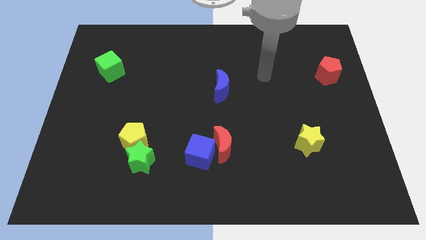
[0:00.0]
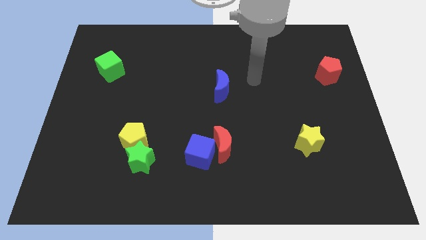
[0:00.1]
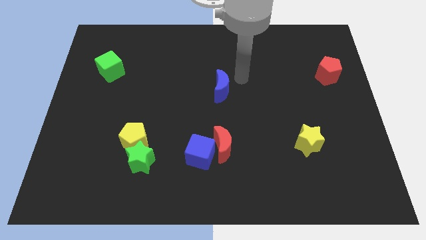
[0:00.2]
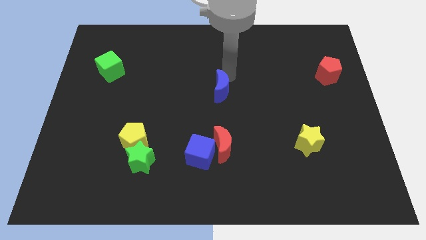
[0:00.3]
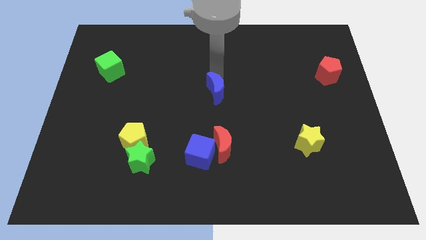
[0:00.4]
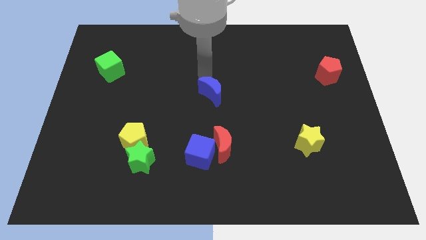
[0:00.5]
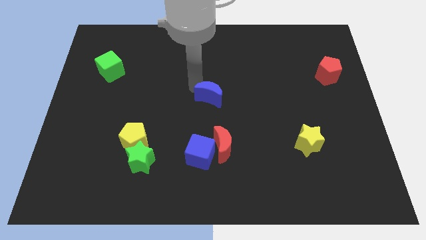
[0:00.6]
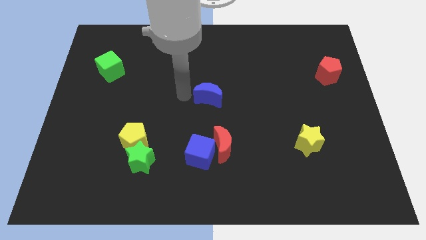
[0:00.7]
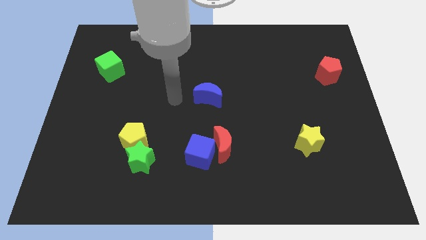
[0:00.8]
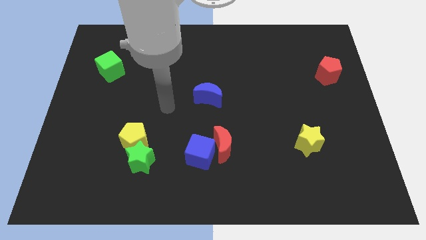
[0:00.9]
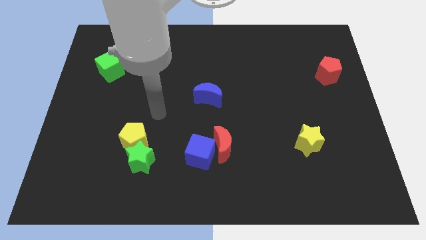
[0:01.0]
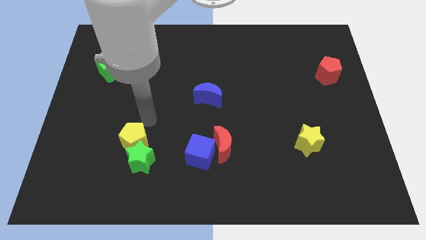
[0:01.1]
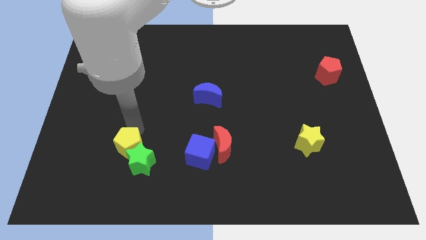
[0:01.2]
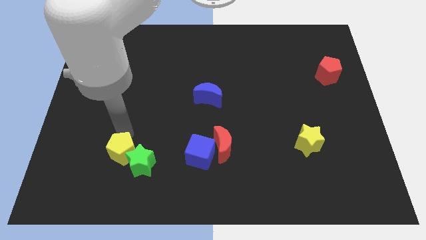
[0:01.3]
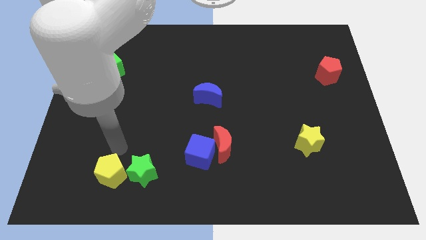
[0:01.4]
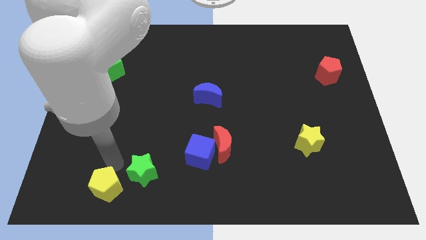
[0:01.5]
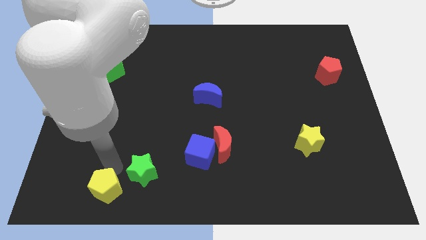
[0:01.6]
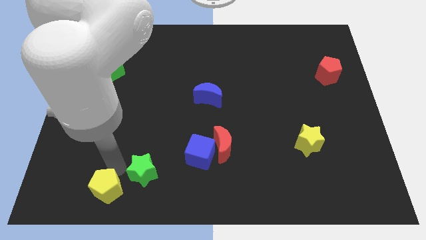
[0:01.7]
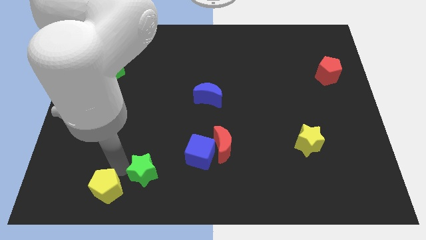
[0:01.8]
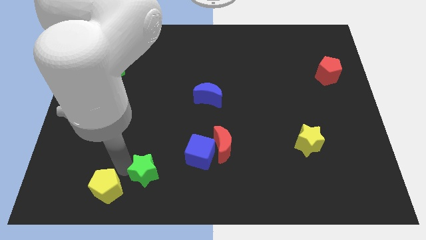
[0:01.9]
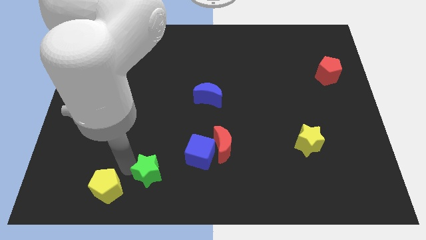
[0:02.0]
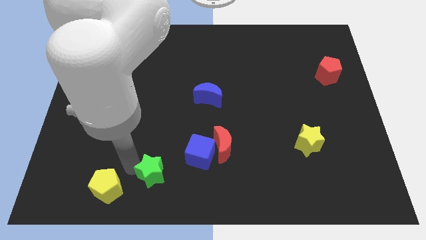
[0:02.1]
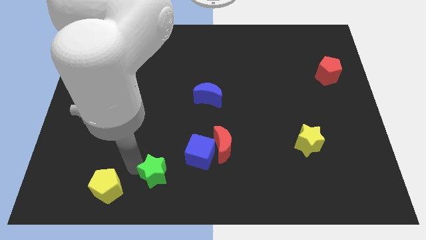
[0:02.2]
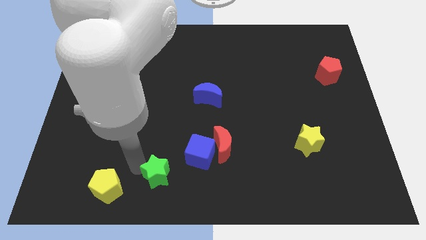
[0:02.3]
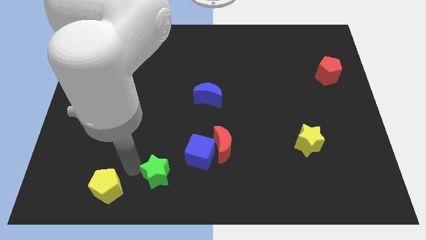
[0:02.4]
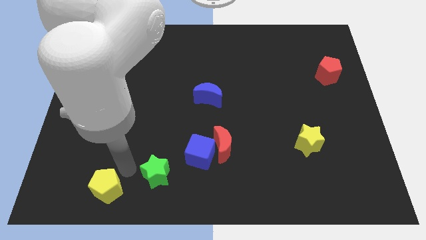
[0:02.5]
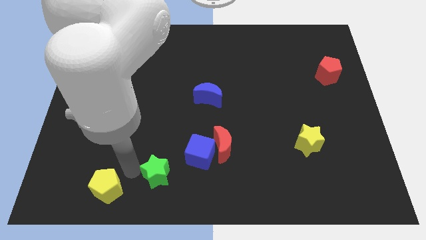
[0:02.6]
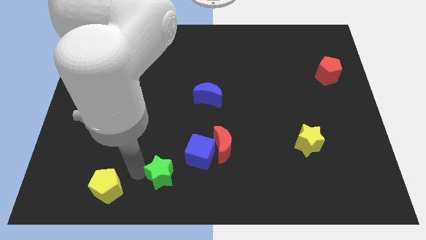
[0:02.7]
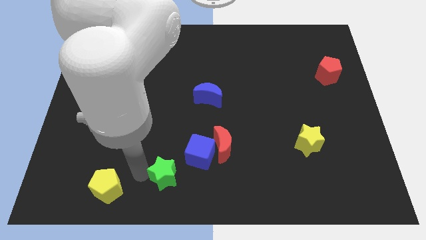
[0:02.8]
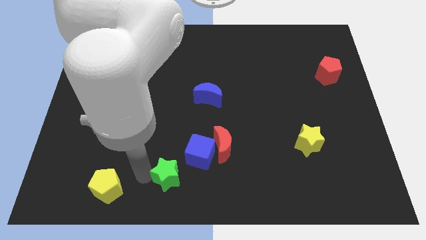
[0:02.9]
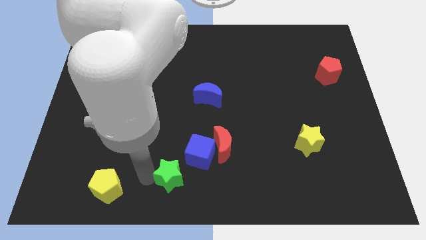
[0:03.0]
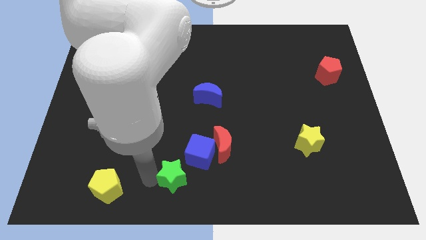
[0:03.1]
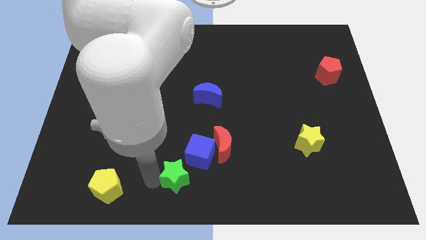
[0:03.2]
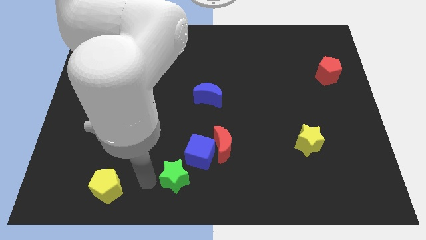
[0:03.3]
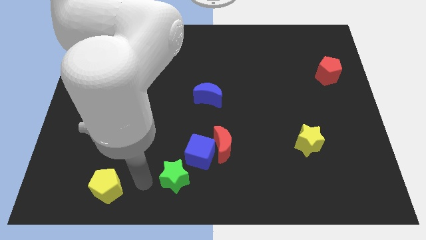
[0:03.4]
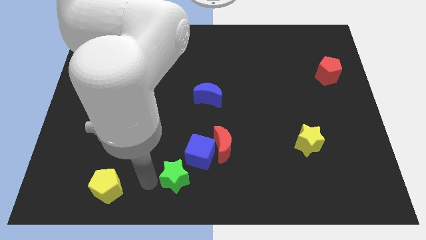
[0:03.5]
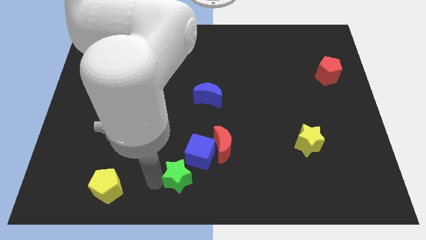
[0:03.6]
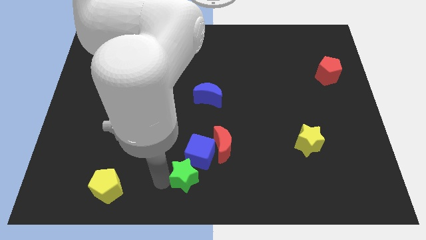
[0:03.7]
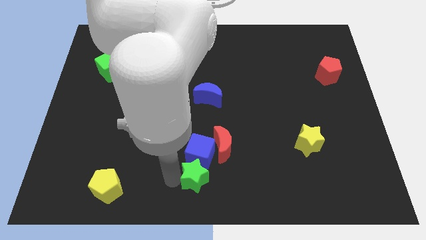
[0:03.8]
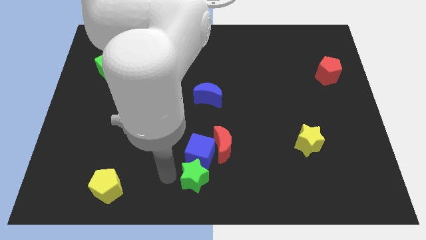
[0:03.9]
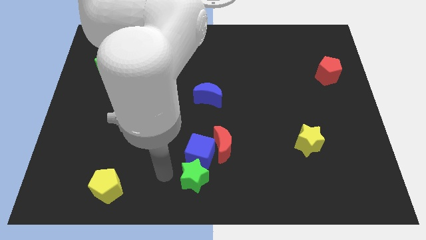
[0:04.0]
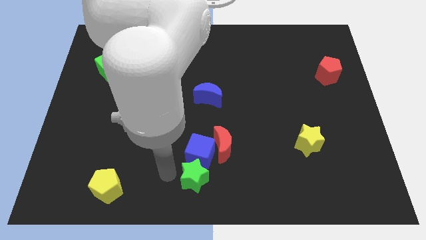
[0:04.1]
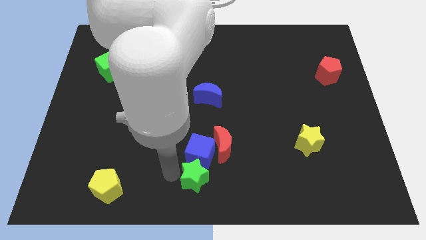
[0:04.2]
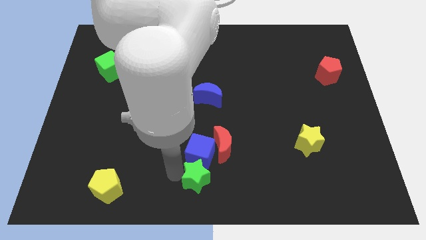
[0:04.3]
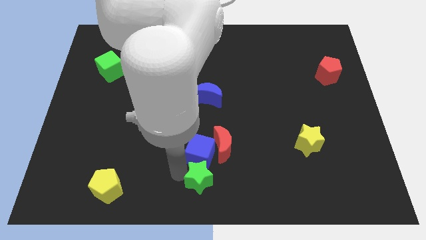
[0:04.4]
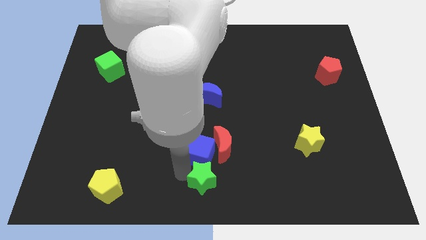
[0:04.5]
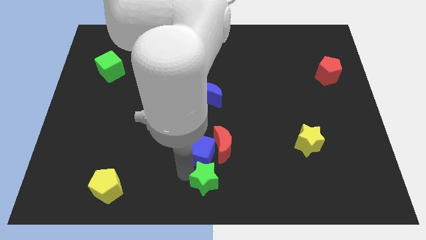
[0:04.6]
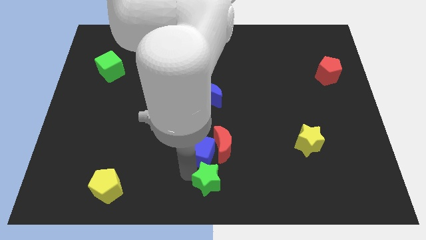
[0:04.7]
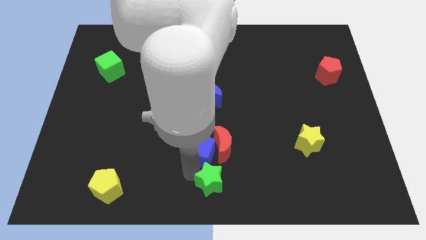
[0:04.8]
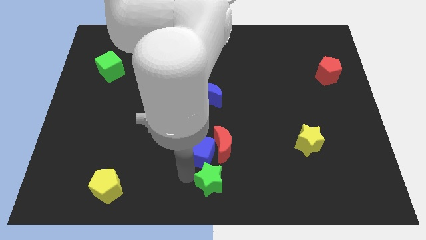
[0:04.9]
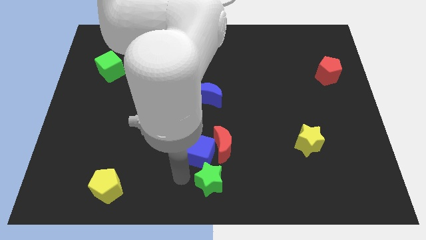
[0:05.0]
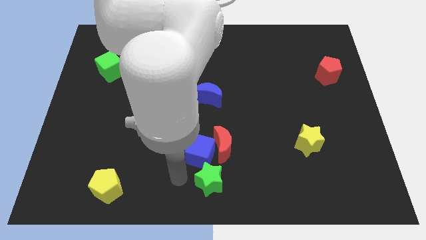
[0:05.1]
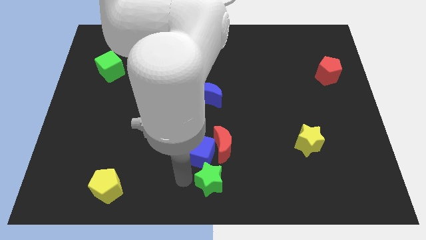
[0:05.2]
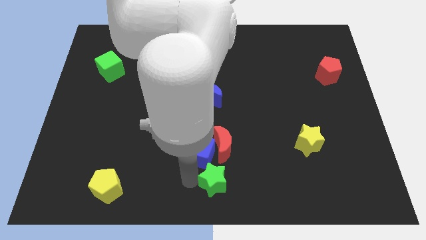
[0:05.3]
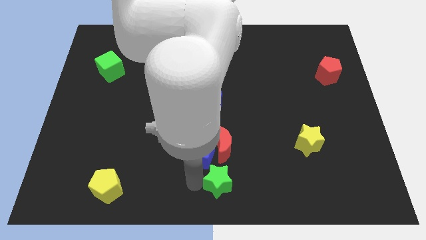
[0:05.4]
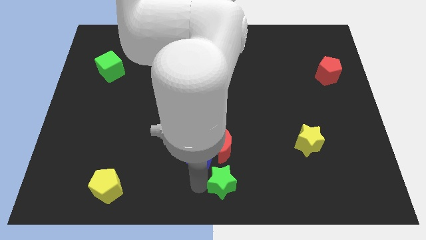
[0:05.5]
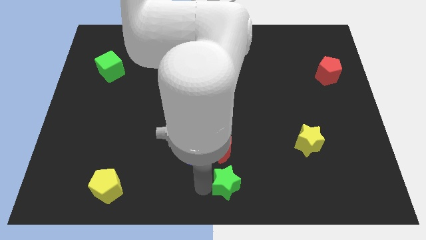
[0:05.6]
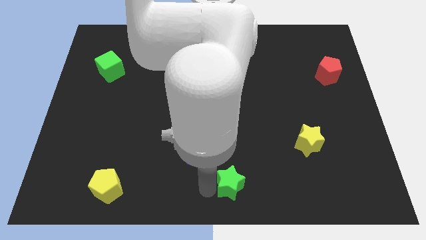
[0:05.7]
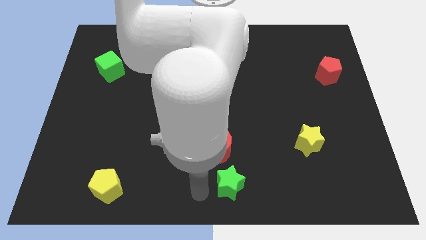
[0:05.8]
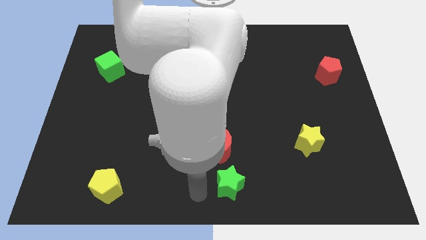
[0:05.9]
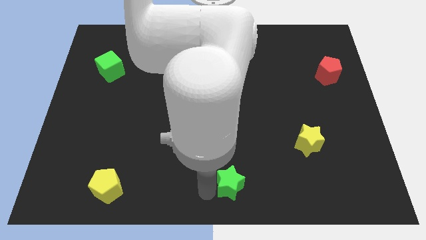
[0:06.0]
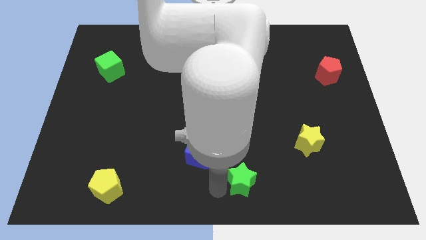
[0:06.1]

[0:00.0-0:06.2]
move the green star to the right

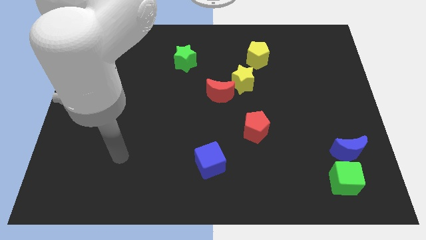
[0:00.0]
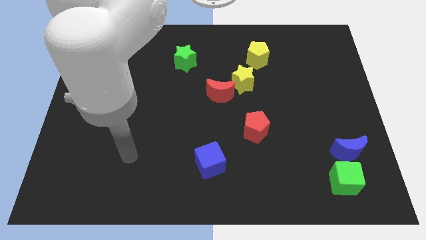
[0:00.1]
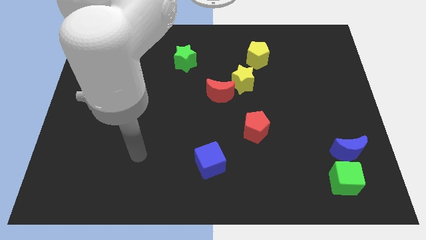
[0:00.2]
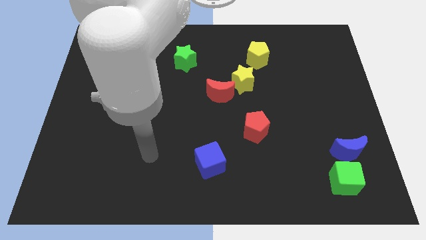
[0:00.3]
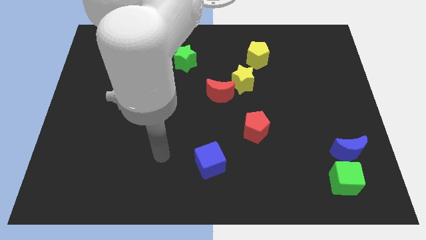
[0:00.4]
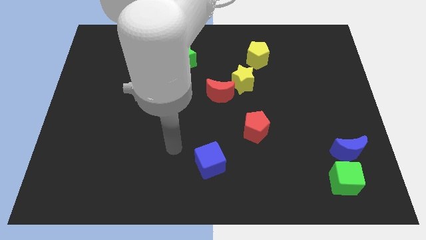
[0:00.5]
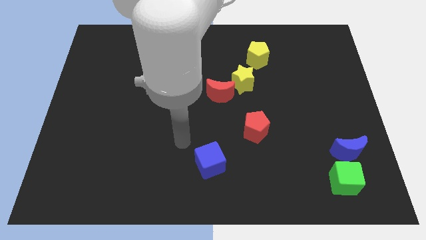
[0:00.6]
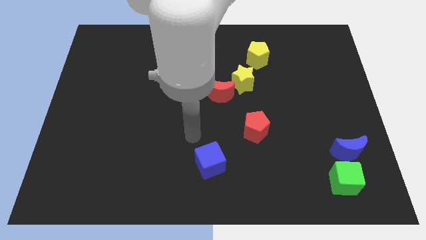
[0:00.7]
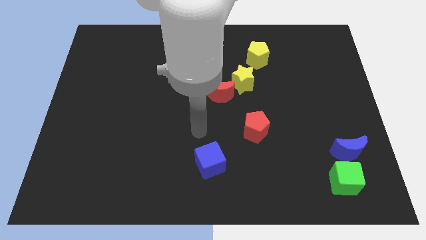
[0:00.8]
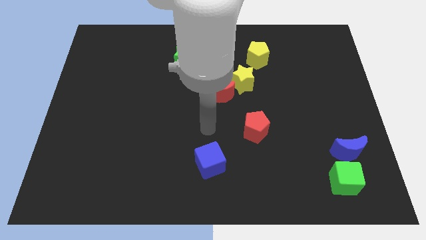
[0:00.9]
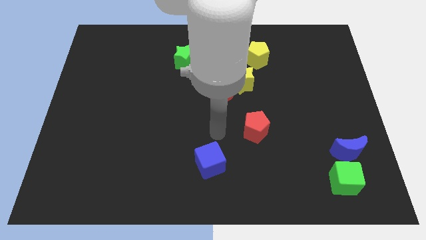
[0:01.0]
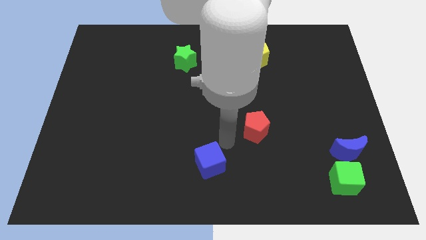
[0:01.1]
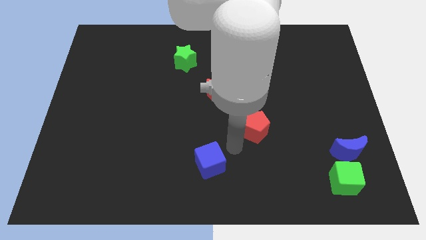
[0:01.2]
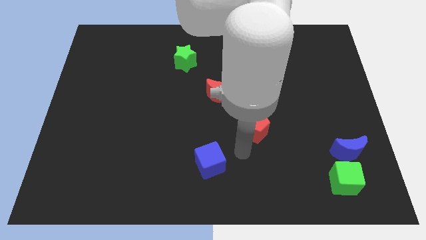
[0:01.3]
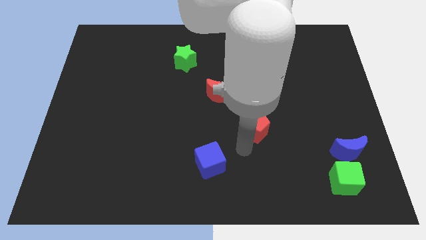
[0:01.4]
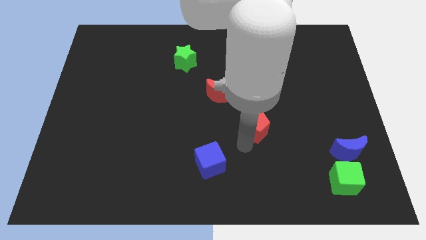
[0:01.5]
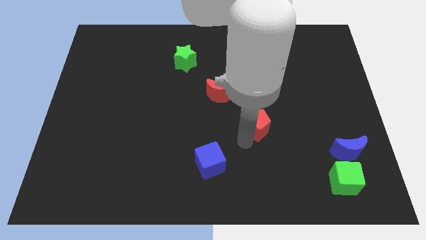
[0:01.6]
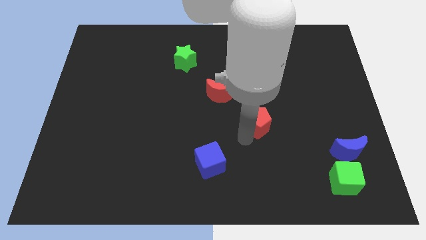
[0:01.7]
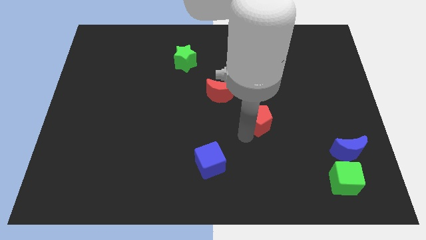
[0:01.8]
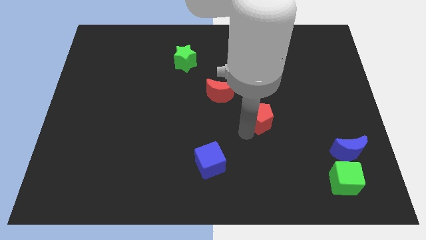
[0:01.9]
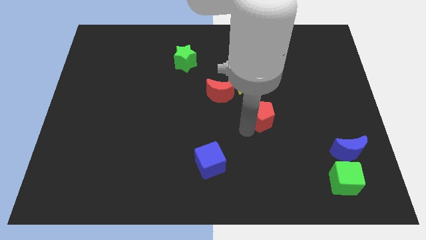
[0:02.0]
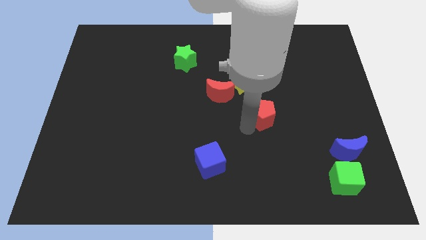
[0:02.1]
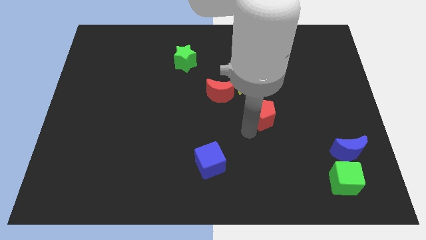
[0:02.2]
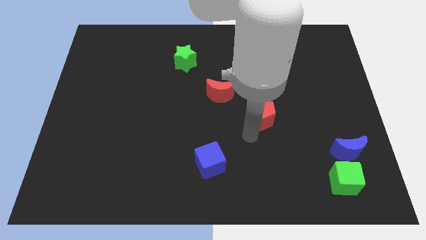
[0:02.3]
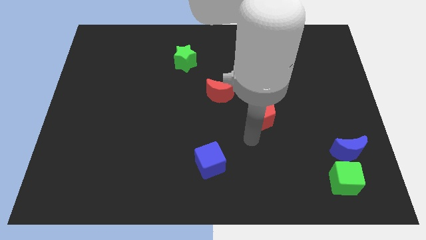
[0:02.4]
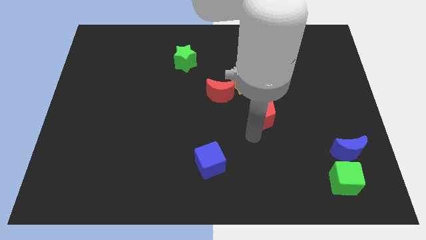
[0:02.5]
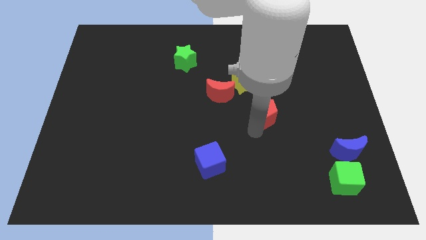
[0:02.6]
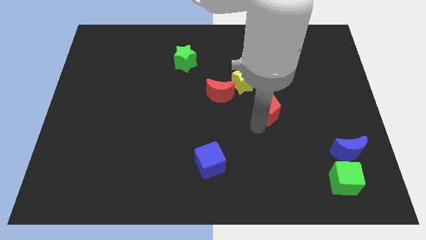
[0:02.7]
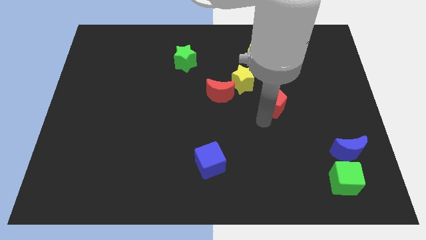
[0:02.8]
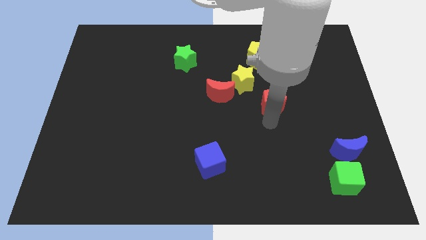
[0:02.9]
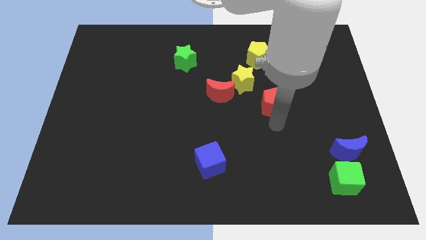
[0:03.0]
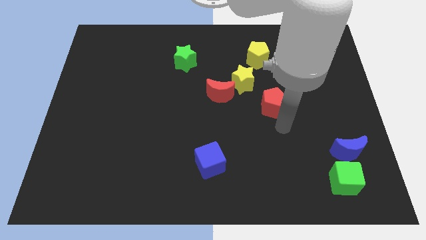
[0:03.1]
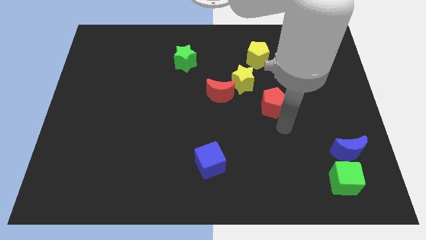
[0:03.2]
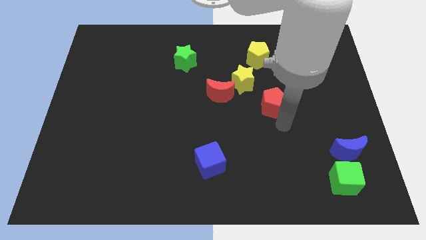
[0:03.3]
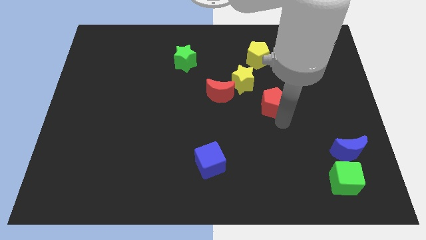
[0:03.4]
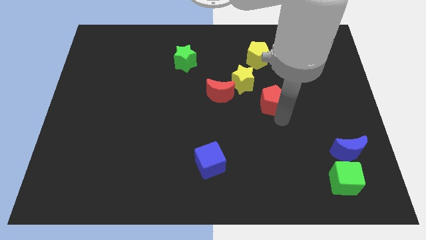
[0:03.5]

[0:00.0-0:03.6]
slide the red pentagon a little bit upwards
